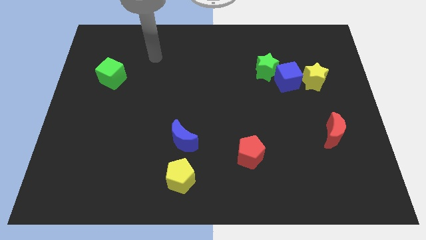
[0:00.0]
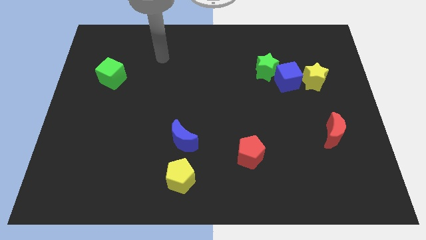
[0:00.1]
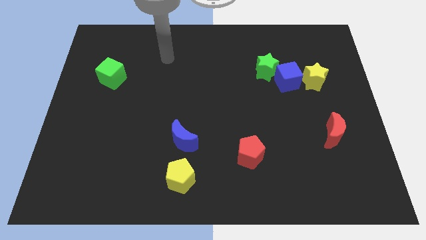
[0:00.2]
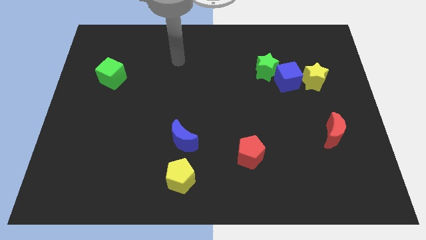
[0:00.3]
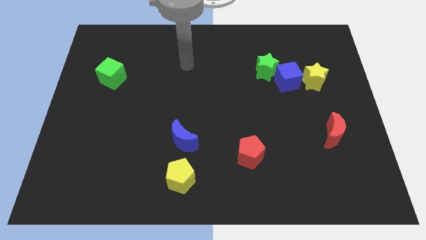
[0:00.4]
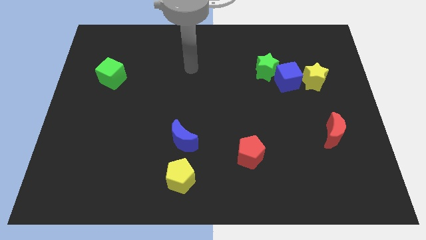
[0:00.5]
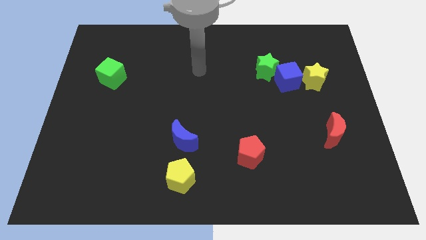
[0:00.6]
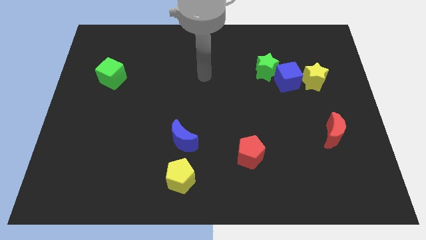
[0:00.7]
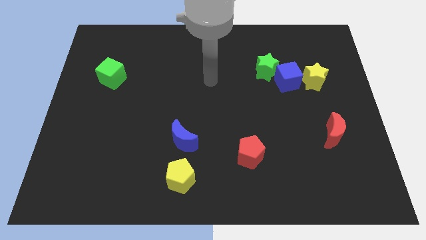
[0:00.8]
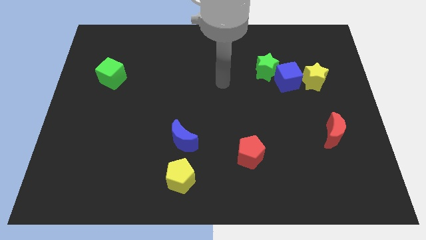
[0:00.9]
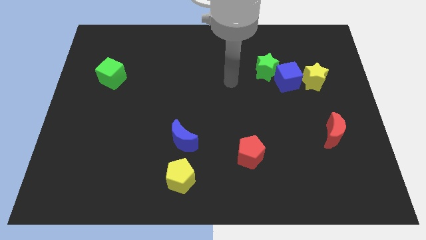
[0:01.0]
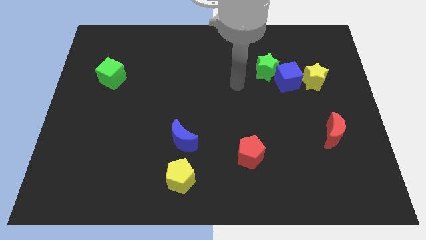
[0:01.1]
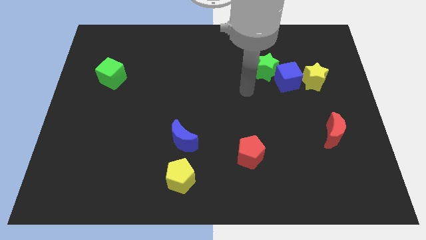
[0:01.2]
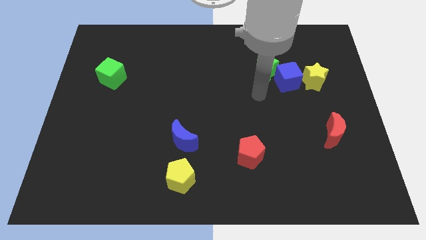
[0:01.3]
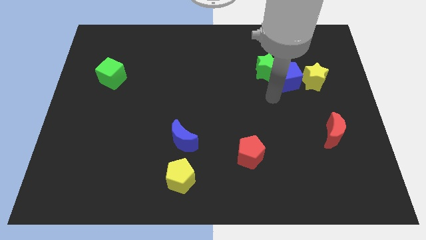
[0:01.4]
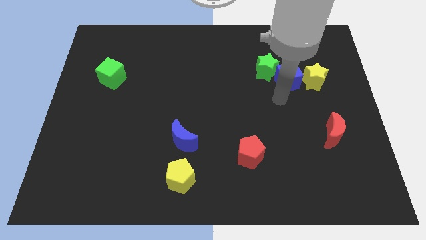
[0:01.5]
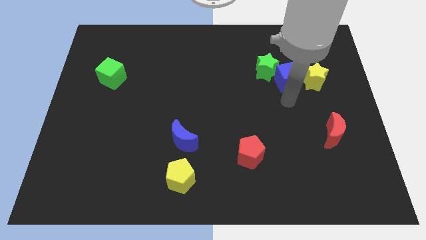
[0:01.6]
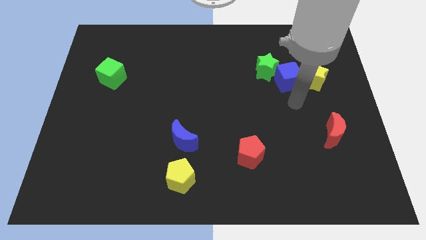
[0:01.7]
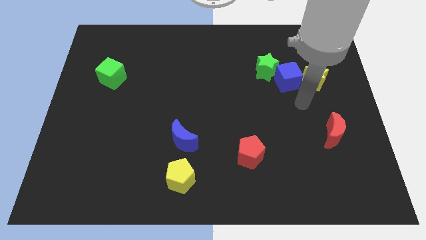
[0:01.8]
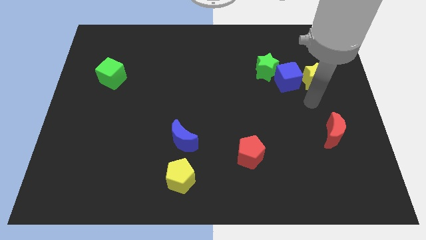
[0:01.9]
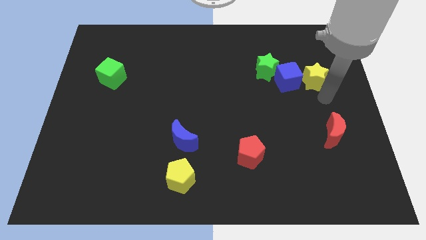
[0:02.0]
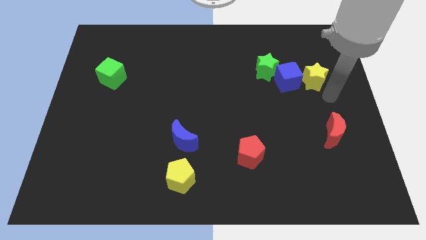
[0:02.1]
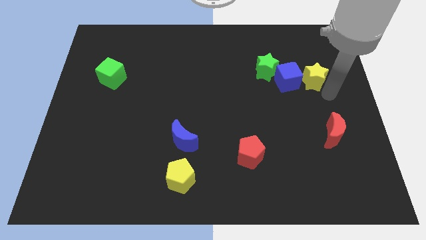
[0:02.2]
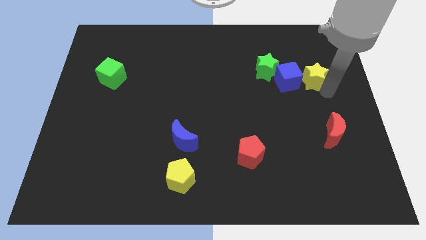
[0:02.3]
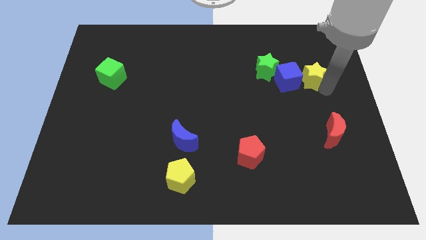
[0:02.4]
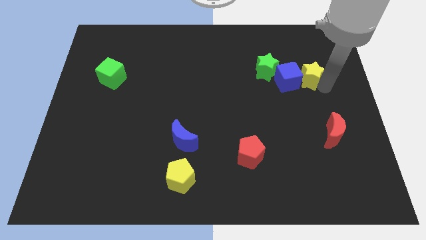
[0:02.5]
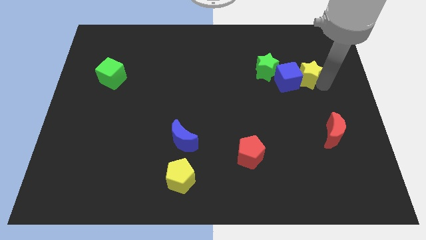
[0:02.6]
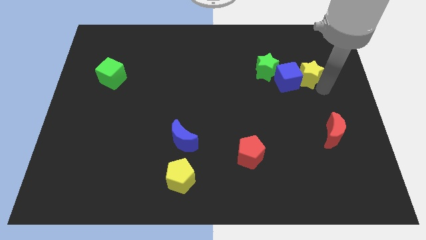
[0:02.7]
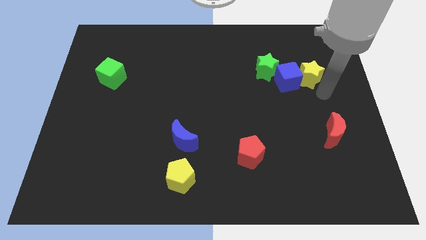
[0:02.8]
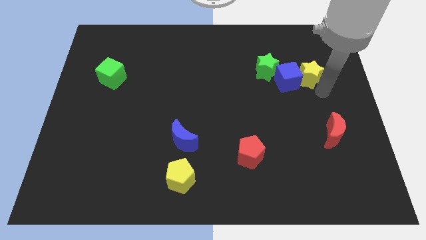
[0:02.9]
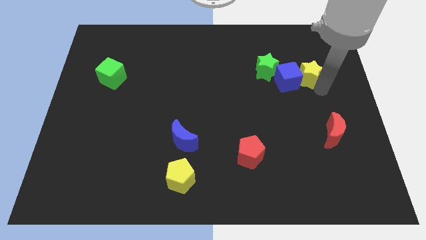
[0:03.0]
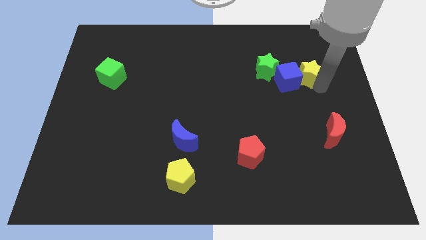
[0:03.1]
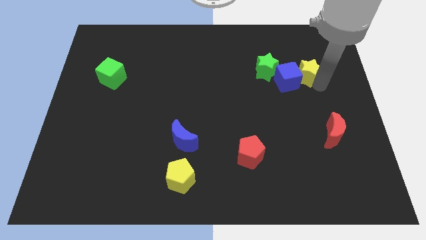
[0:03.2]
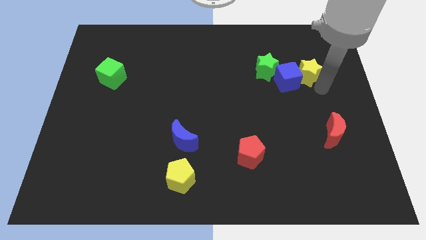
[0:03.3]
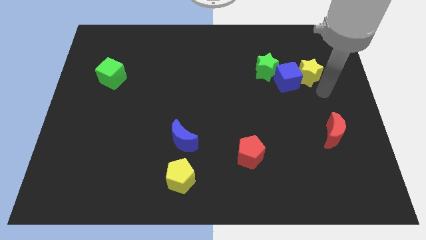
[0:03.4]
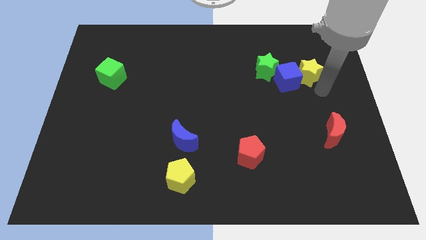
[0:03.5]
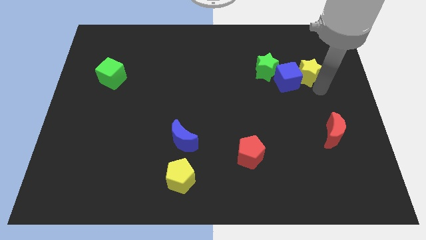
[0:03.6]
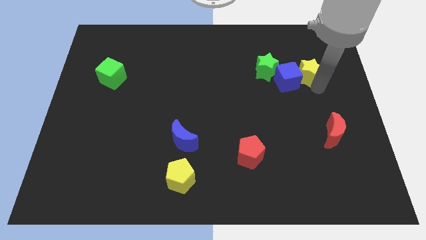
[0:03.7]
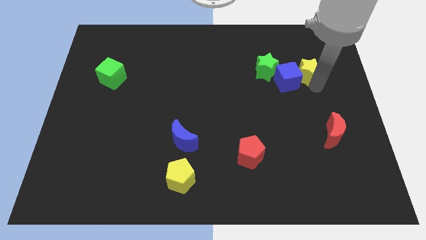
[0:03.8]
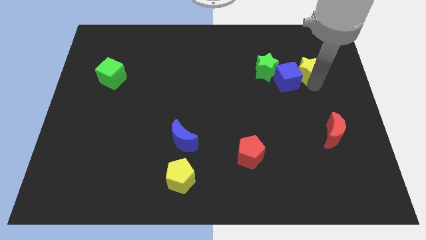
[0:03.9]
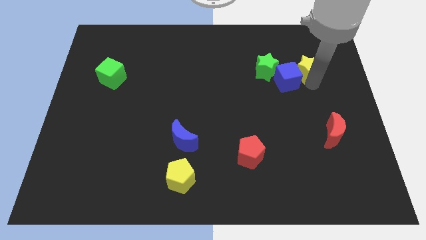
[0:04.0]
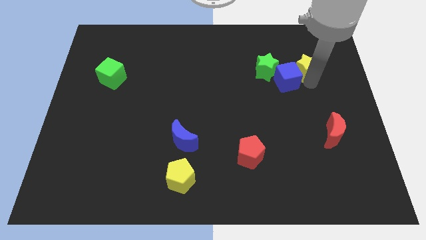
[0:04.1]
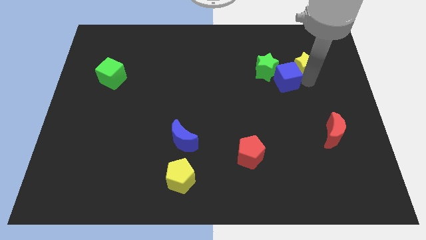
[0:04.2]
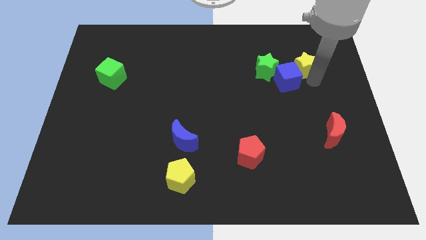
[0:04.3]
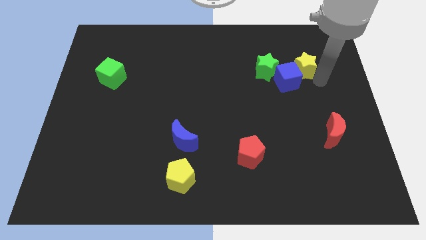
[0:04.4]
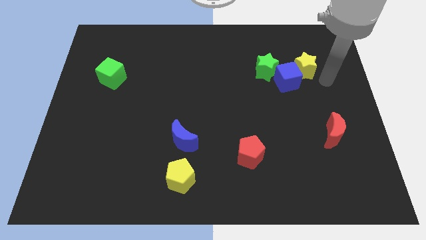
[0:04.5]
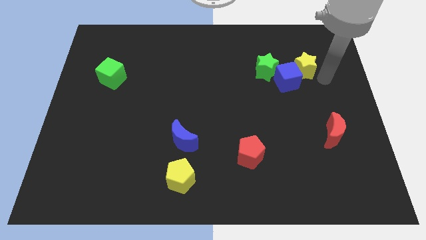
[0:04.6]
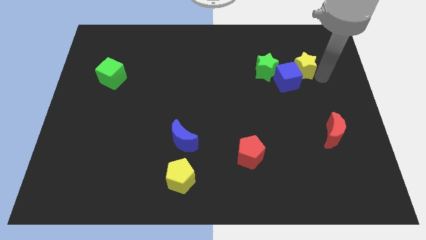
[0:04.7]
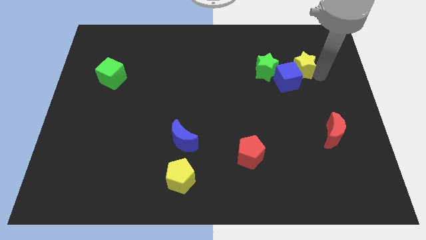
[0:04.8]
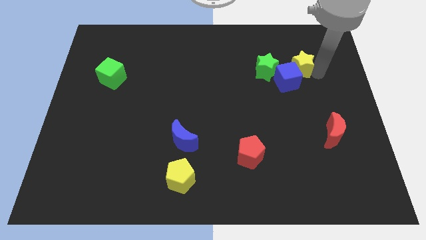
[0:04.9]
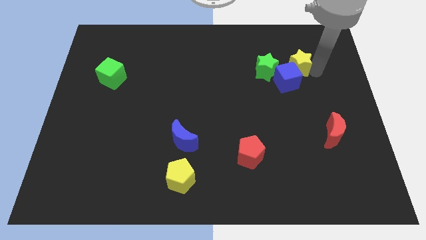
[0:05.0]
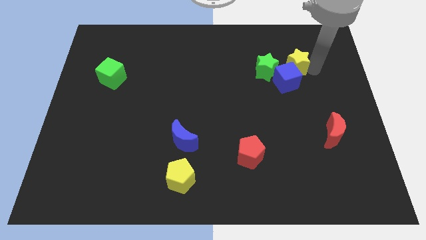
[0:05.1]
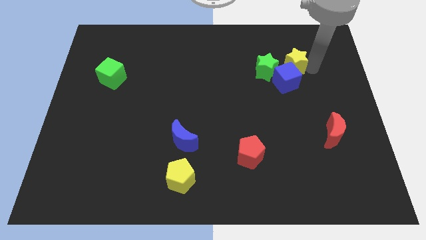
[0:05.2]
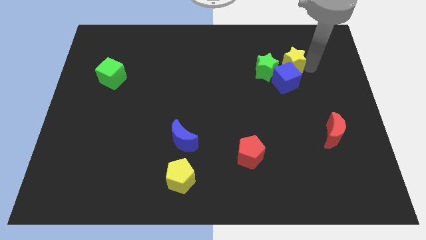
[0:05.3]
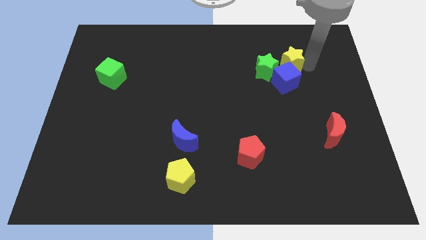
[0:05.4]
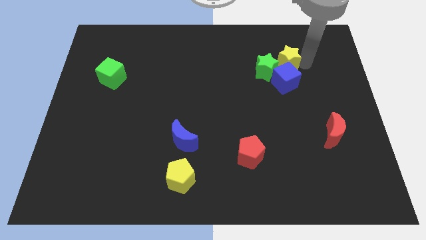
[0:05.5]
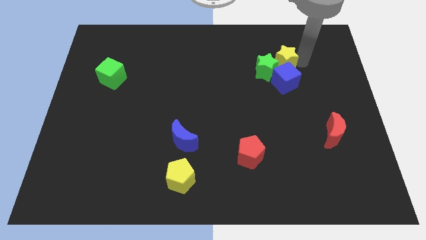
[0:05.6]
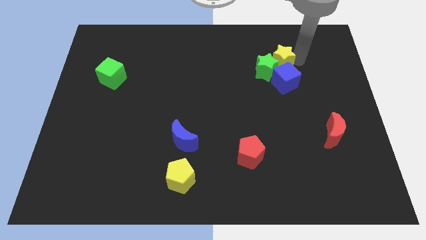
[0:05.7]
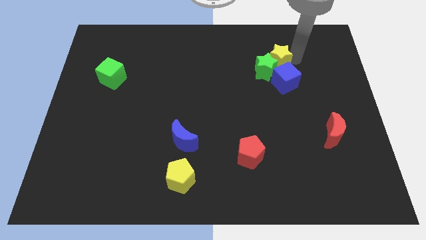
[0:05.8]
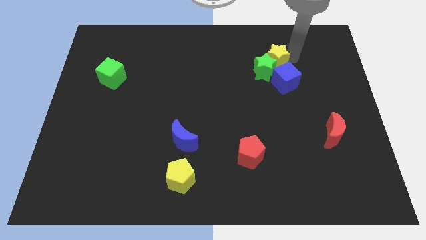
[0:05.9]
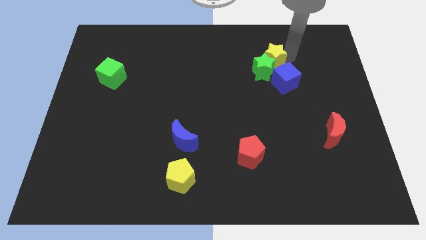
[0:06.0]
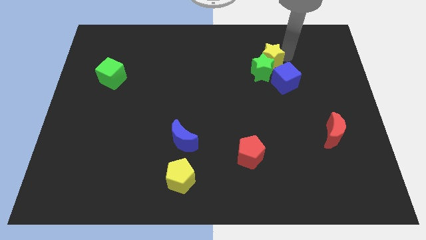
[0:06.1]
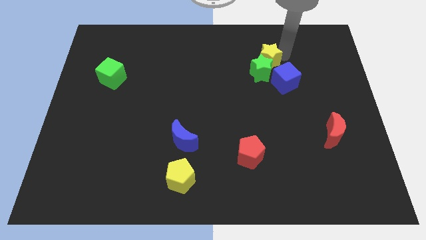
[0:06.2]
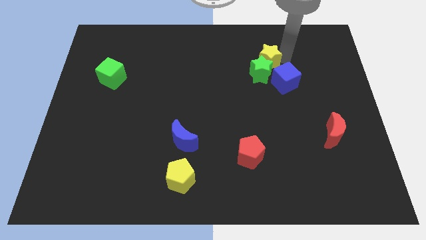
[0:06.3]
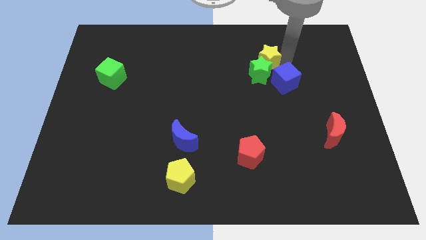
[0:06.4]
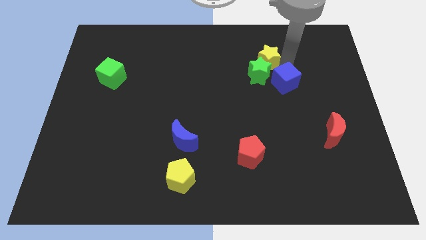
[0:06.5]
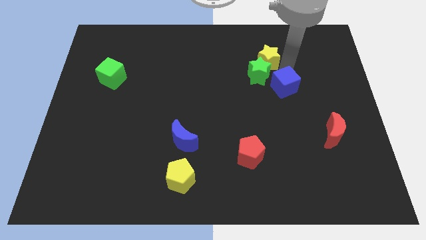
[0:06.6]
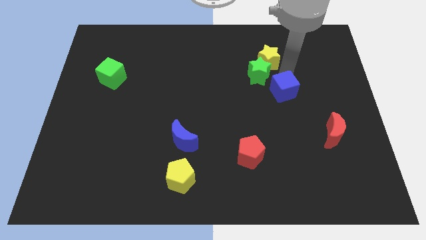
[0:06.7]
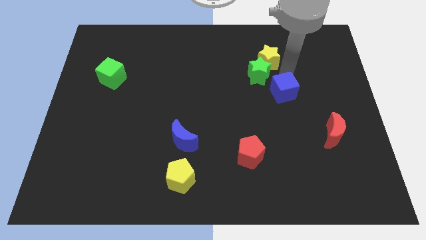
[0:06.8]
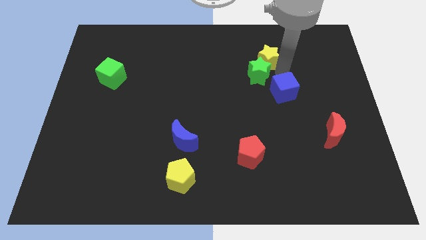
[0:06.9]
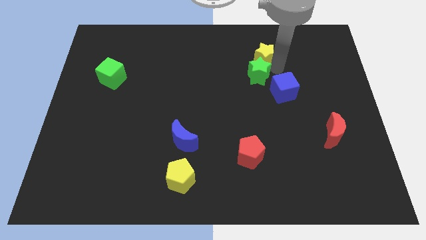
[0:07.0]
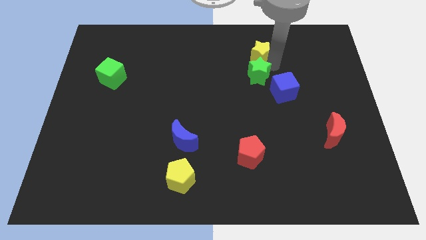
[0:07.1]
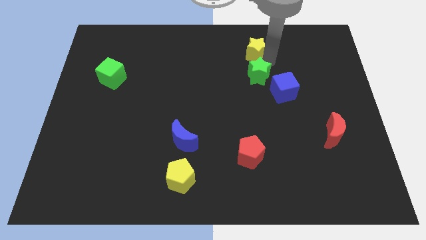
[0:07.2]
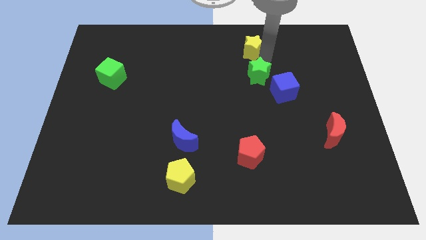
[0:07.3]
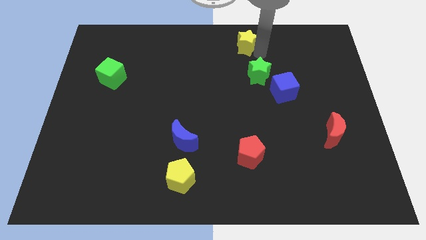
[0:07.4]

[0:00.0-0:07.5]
slide the yellow star to the top
